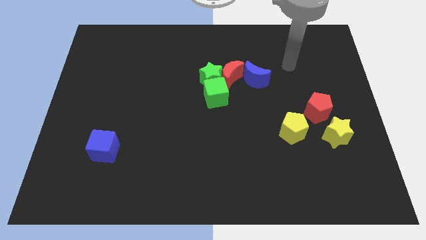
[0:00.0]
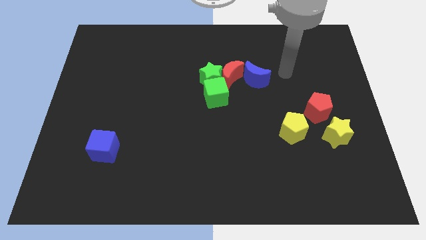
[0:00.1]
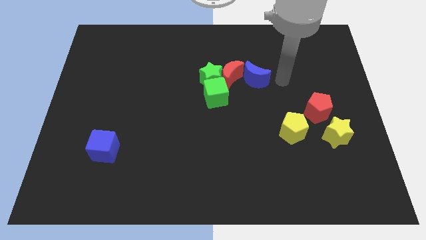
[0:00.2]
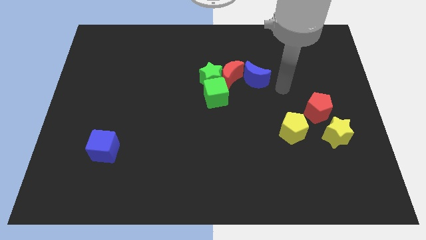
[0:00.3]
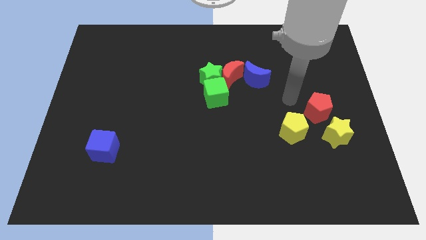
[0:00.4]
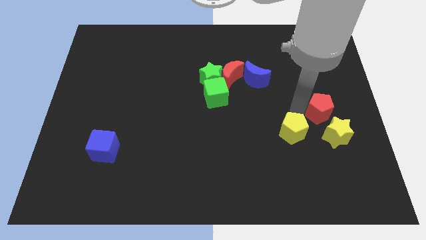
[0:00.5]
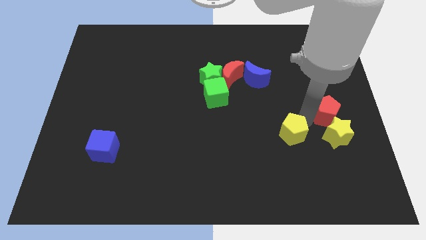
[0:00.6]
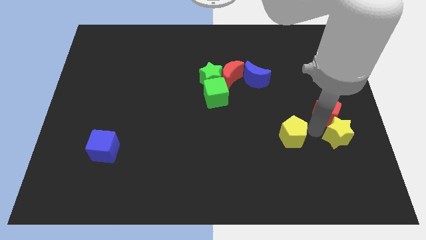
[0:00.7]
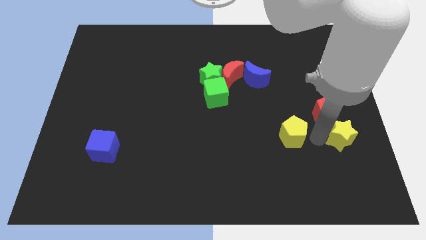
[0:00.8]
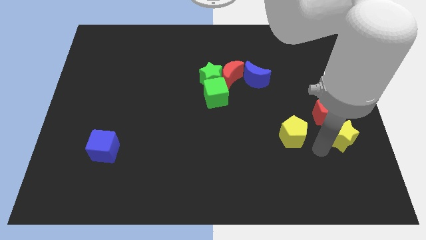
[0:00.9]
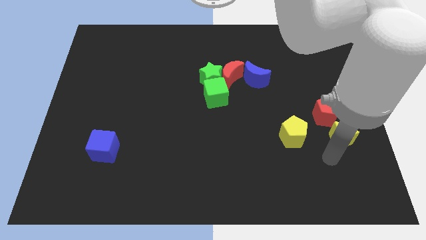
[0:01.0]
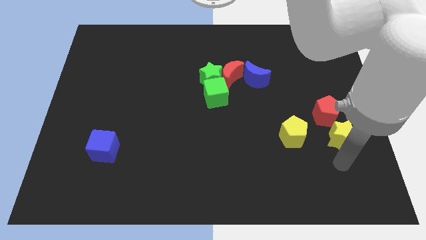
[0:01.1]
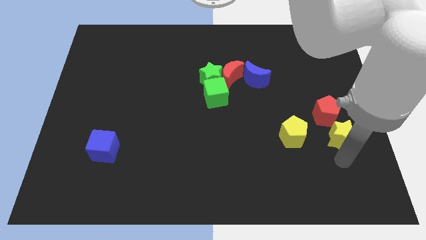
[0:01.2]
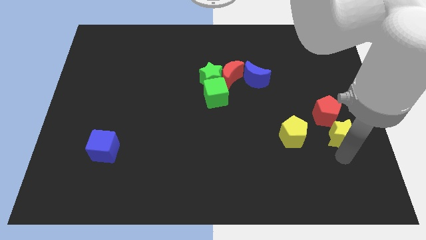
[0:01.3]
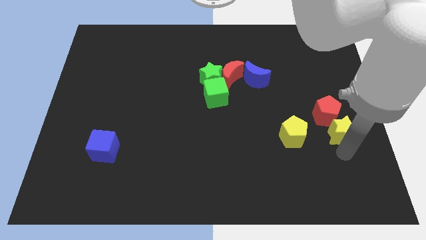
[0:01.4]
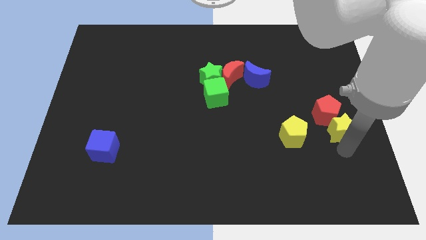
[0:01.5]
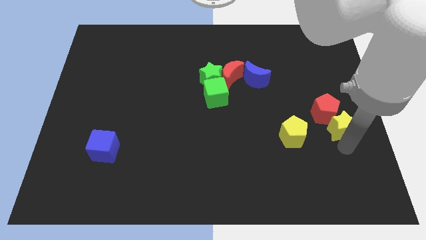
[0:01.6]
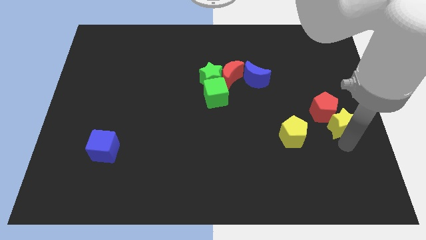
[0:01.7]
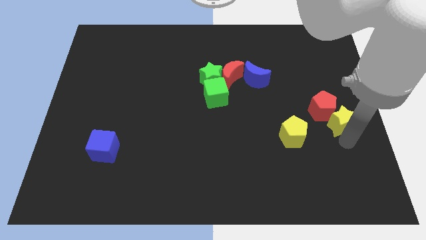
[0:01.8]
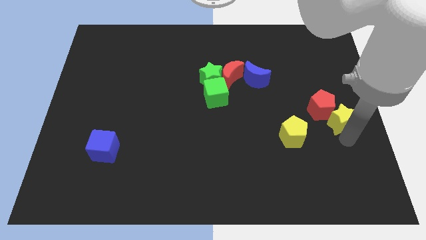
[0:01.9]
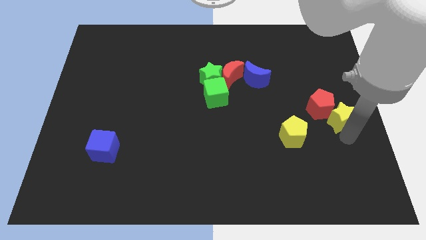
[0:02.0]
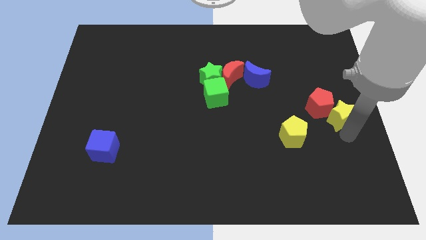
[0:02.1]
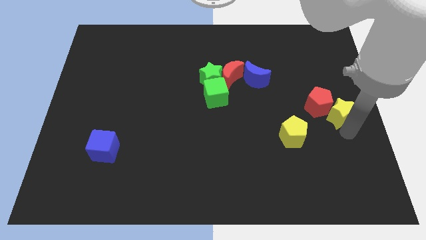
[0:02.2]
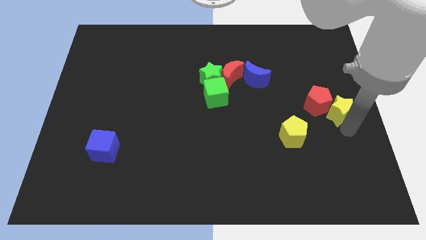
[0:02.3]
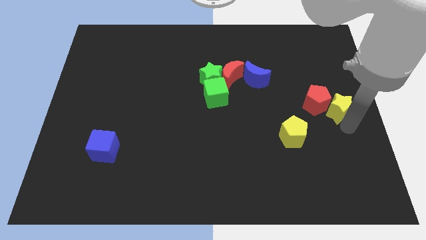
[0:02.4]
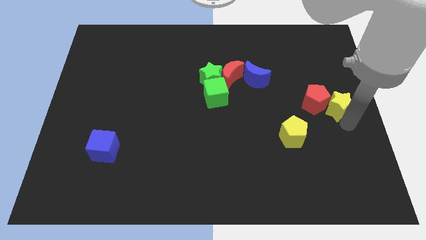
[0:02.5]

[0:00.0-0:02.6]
move the yellow star a bit up

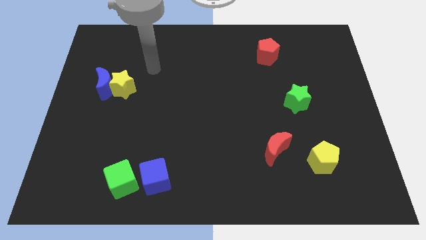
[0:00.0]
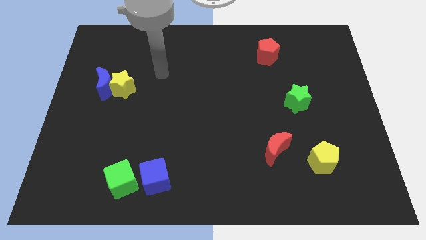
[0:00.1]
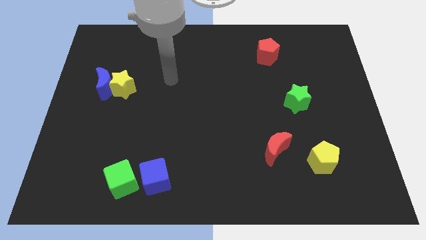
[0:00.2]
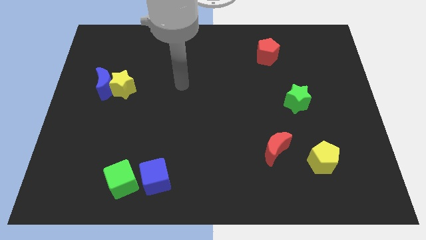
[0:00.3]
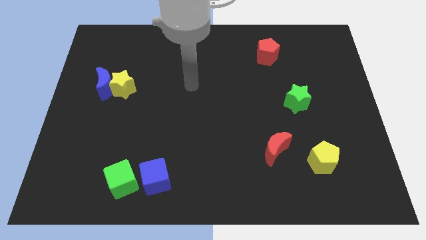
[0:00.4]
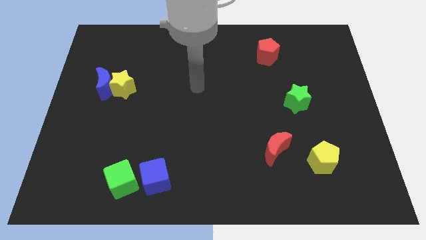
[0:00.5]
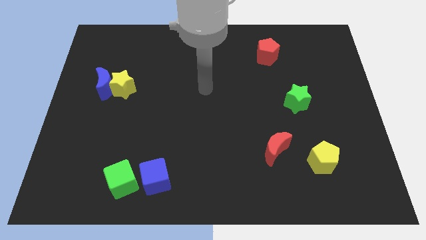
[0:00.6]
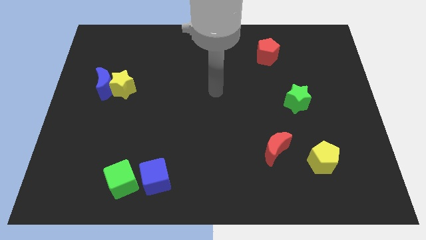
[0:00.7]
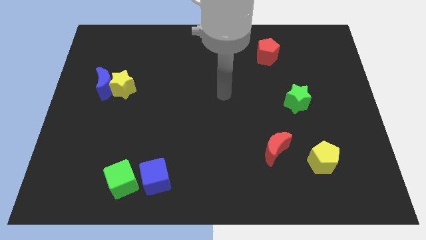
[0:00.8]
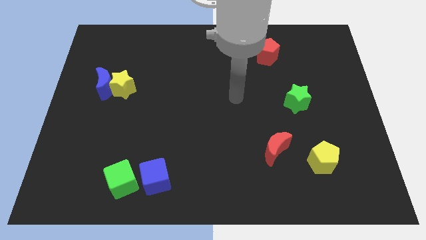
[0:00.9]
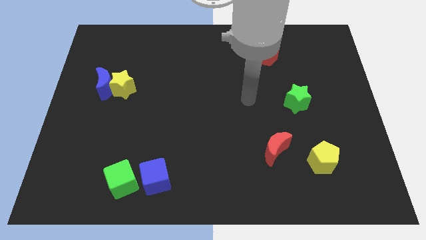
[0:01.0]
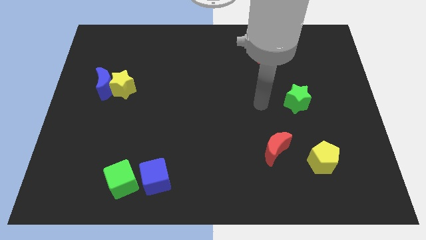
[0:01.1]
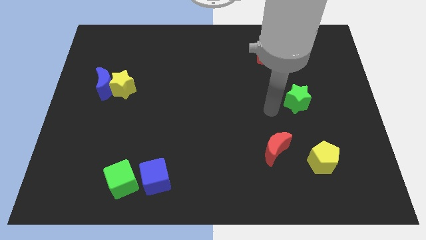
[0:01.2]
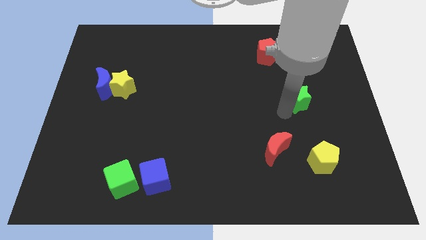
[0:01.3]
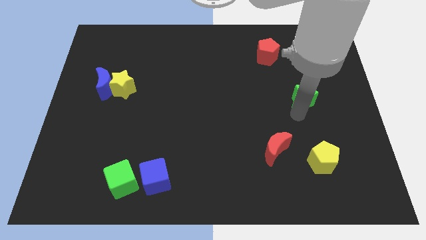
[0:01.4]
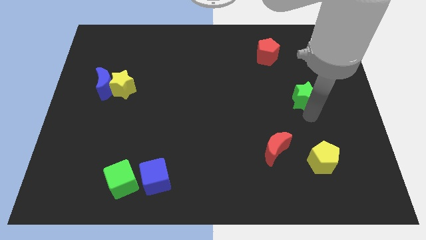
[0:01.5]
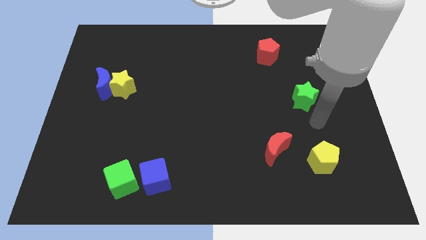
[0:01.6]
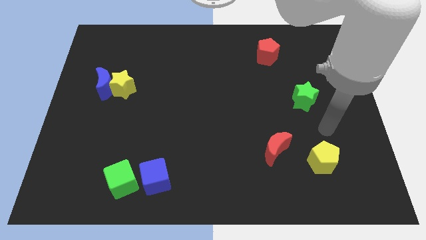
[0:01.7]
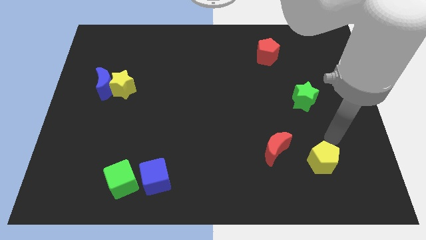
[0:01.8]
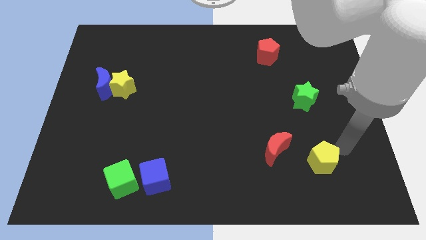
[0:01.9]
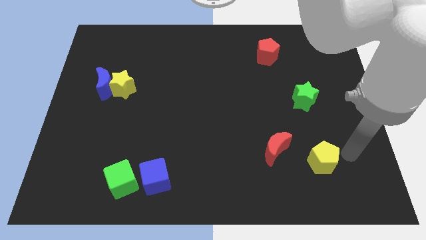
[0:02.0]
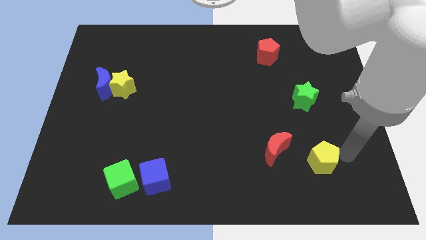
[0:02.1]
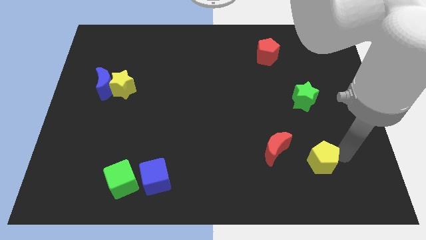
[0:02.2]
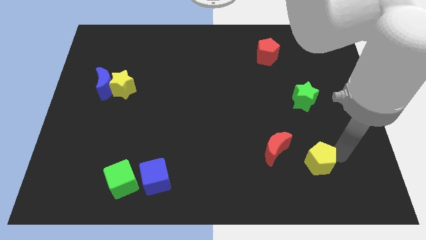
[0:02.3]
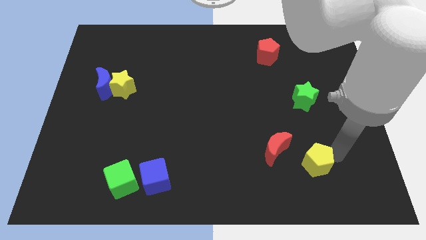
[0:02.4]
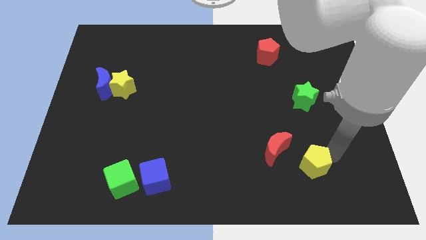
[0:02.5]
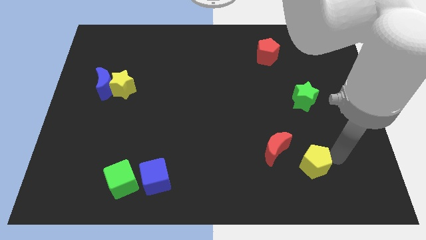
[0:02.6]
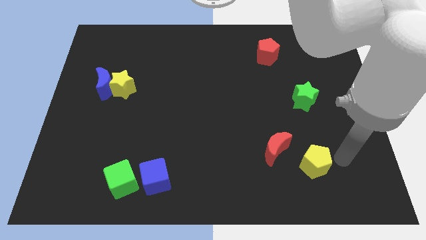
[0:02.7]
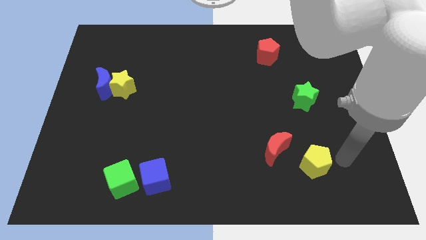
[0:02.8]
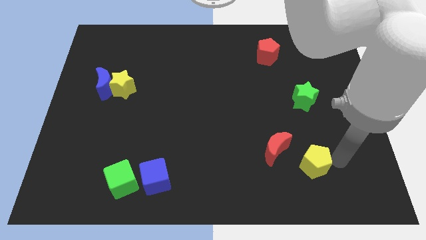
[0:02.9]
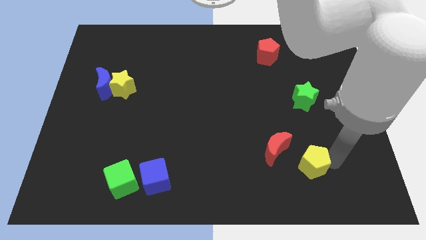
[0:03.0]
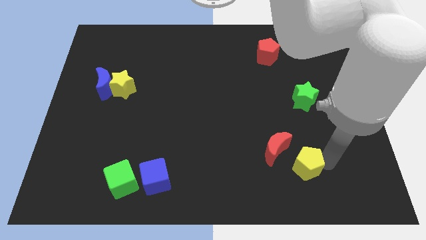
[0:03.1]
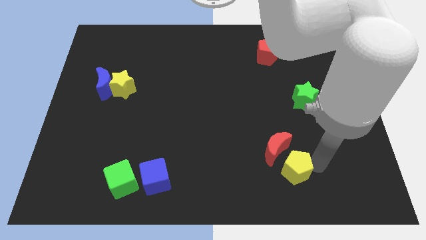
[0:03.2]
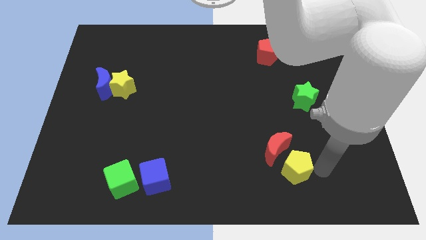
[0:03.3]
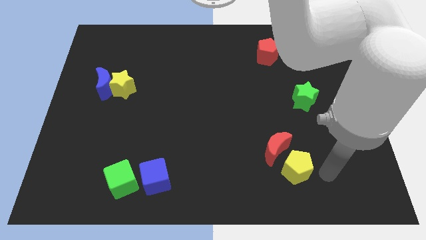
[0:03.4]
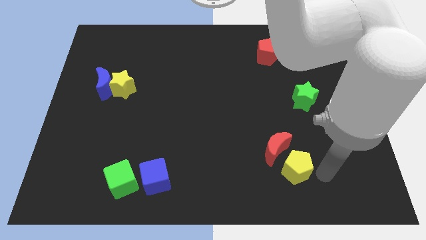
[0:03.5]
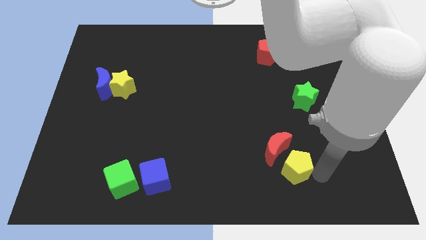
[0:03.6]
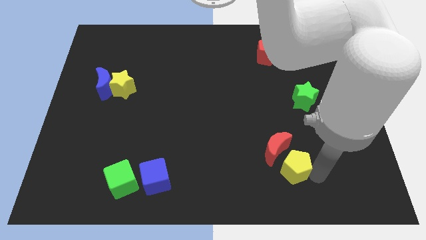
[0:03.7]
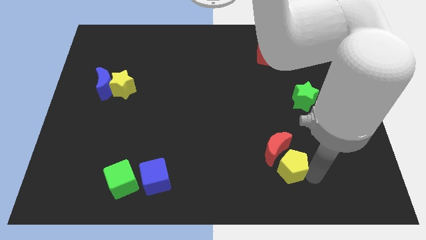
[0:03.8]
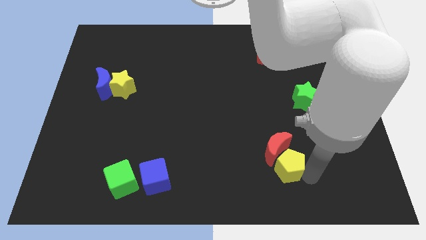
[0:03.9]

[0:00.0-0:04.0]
move the yellow pentagon left a bit

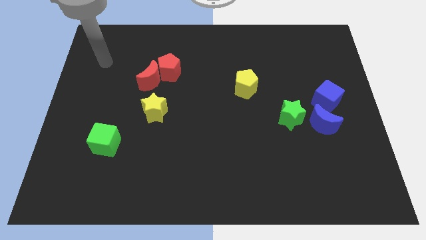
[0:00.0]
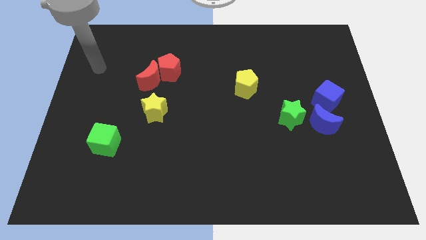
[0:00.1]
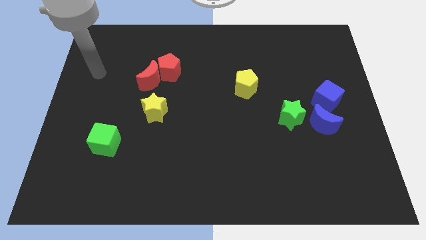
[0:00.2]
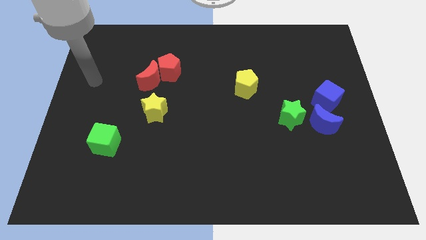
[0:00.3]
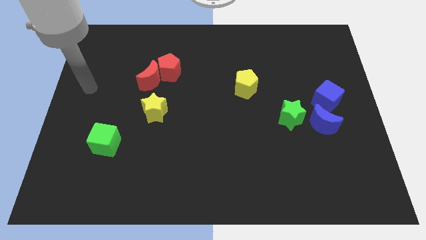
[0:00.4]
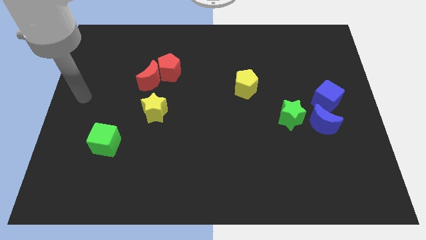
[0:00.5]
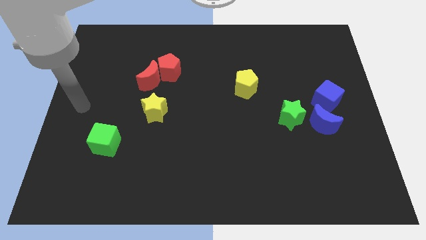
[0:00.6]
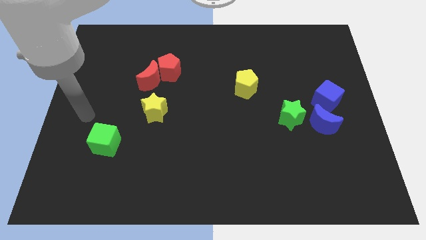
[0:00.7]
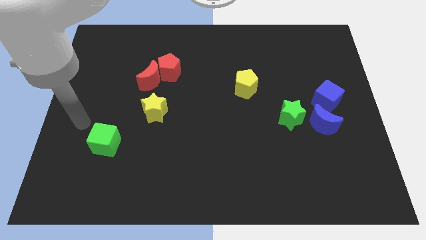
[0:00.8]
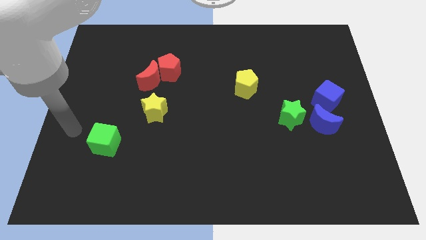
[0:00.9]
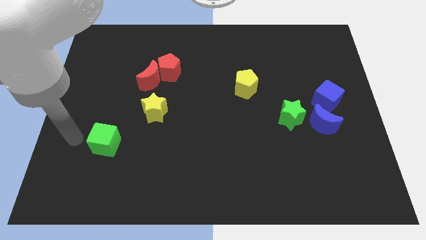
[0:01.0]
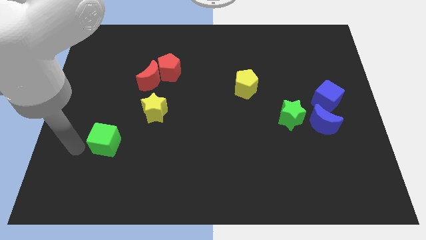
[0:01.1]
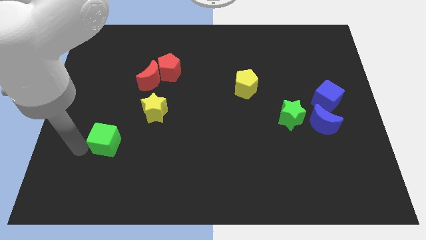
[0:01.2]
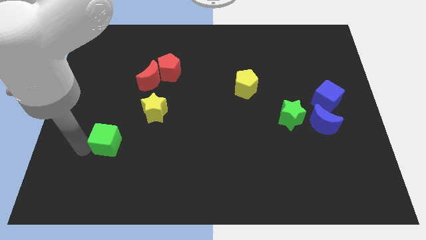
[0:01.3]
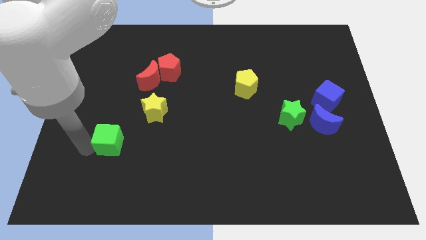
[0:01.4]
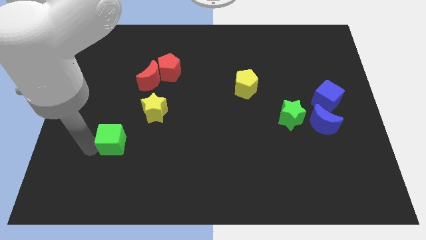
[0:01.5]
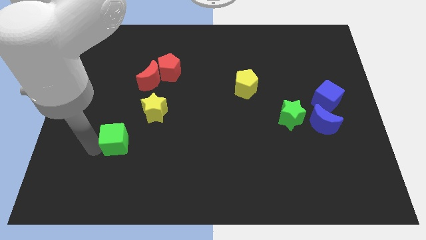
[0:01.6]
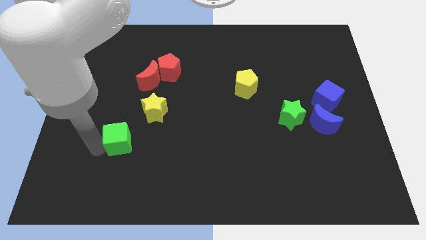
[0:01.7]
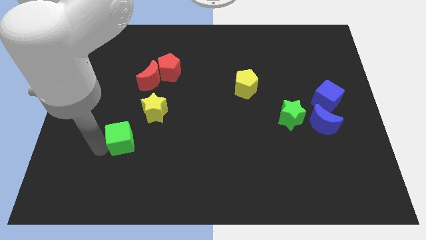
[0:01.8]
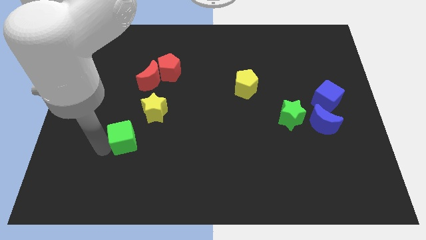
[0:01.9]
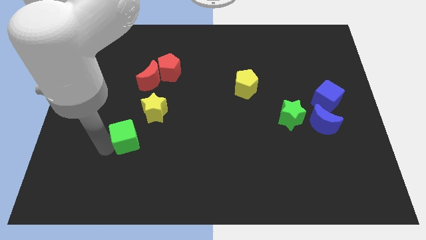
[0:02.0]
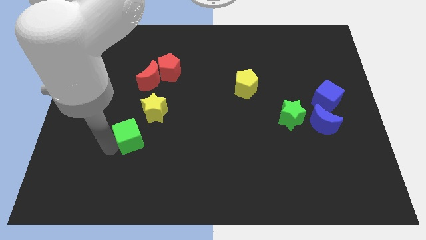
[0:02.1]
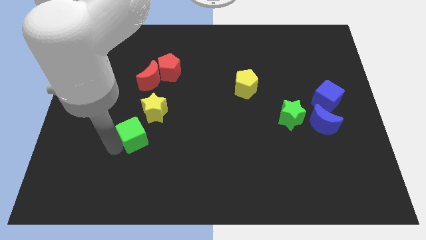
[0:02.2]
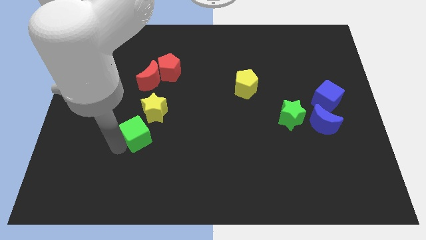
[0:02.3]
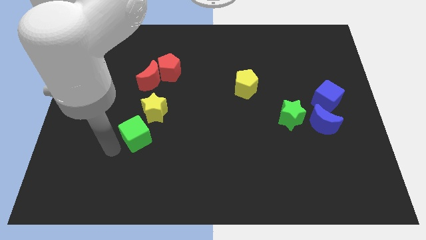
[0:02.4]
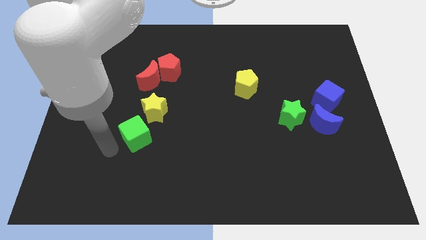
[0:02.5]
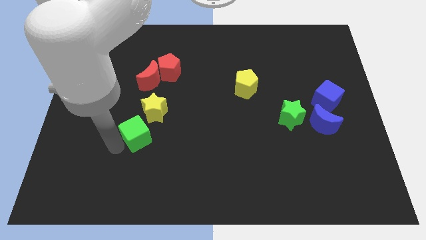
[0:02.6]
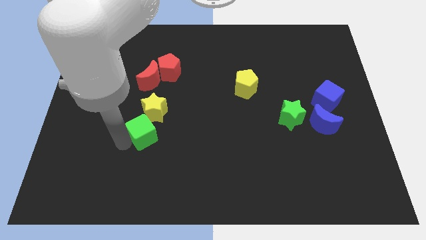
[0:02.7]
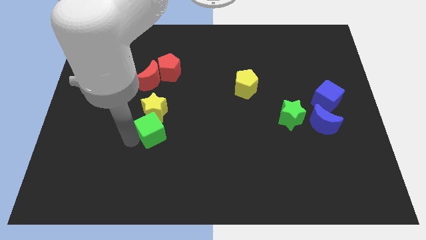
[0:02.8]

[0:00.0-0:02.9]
push the green cube a little bit up and then right
